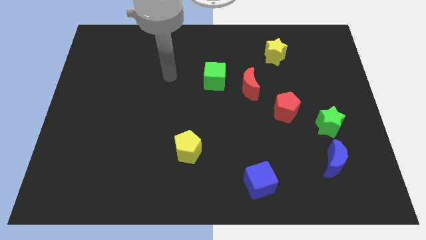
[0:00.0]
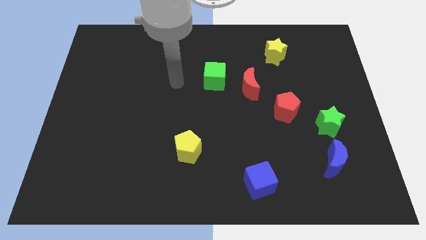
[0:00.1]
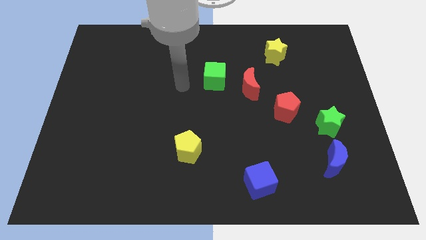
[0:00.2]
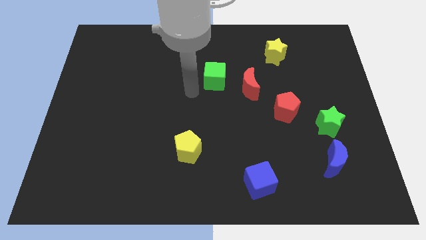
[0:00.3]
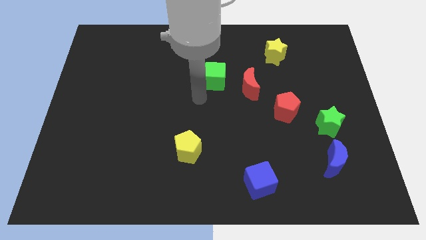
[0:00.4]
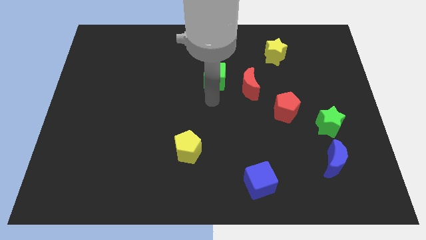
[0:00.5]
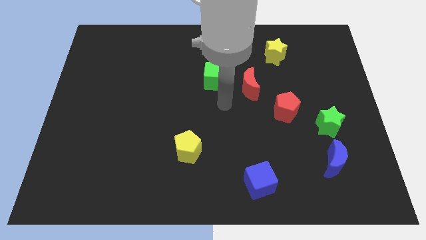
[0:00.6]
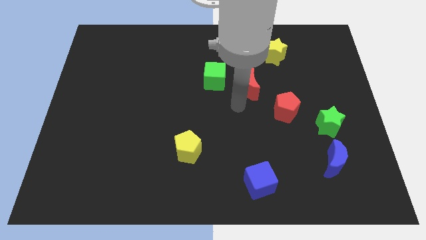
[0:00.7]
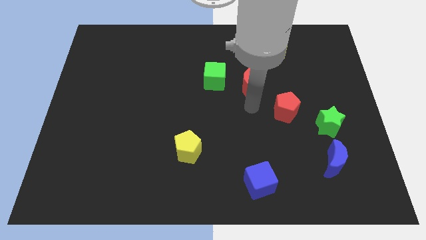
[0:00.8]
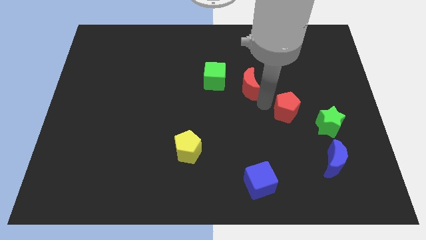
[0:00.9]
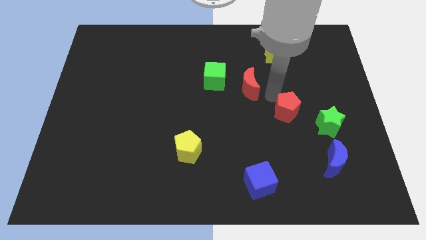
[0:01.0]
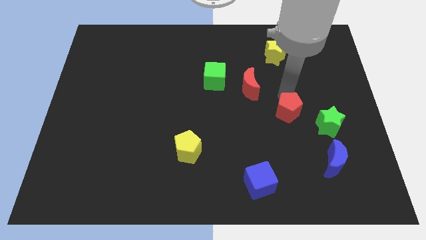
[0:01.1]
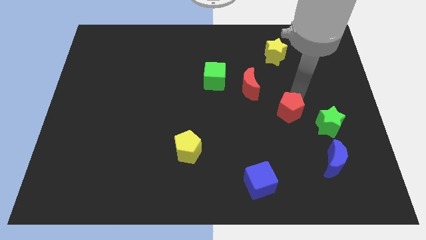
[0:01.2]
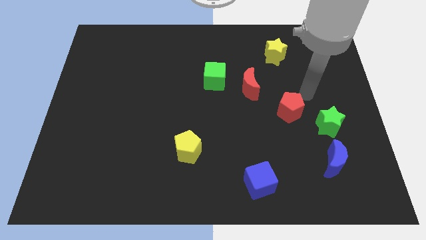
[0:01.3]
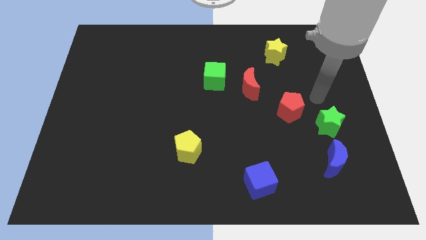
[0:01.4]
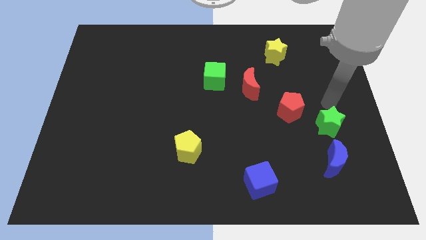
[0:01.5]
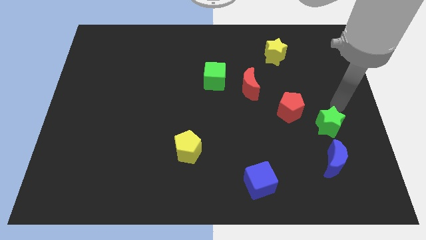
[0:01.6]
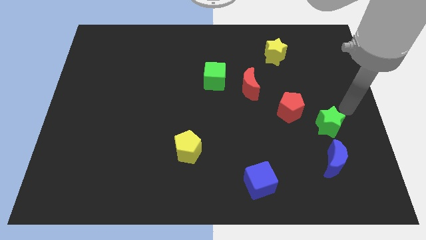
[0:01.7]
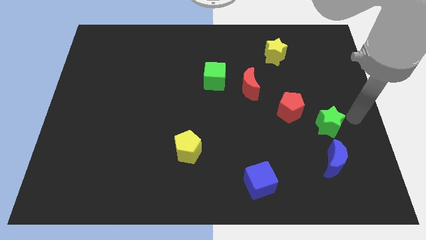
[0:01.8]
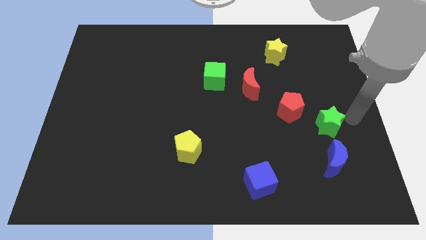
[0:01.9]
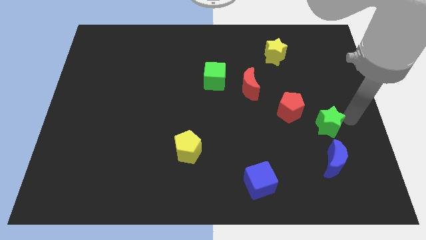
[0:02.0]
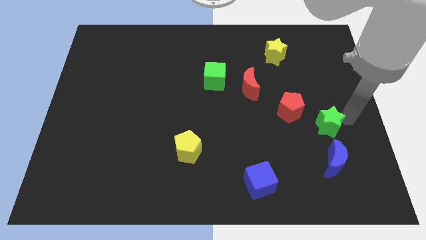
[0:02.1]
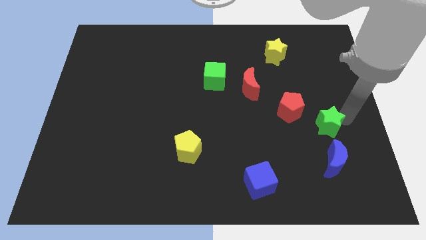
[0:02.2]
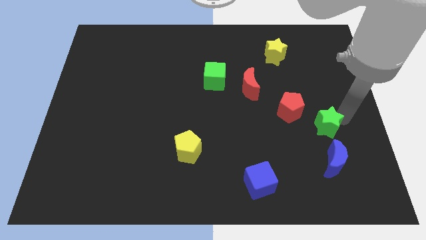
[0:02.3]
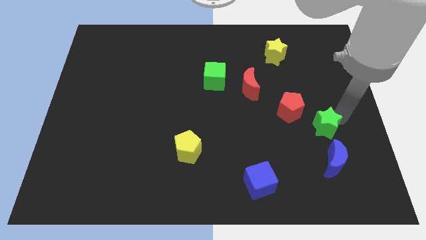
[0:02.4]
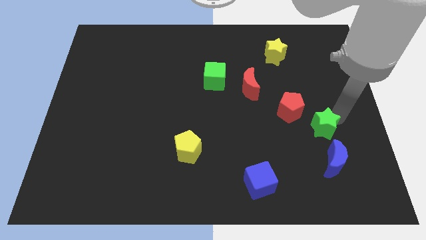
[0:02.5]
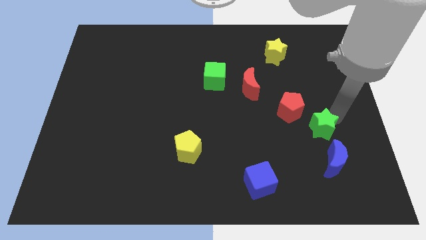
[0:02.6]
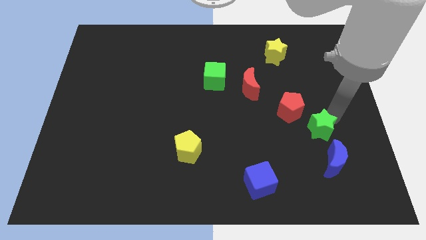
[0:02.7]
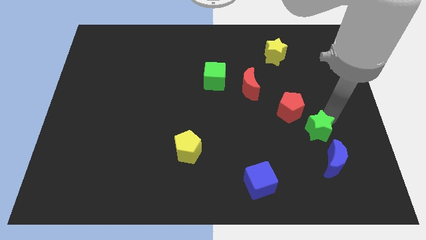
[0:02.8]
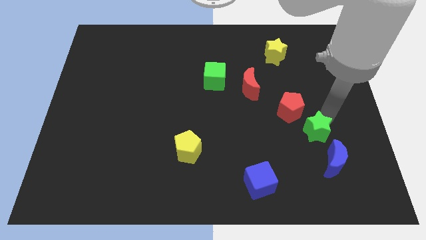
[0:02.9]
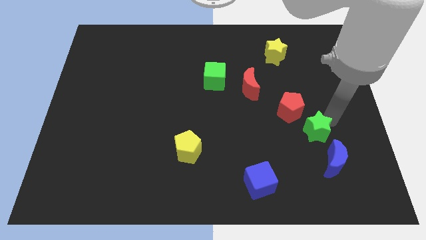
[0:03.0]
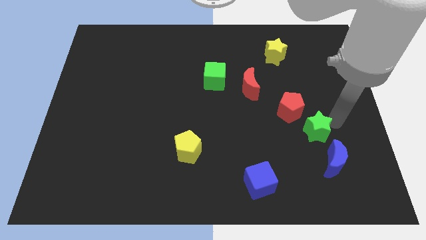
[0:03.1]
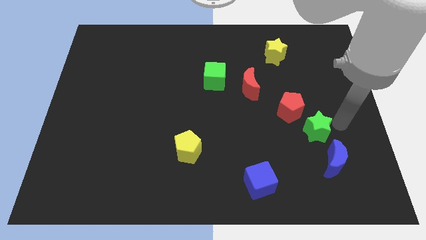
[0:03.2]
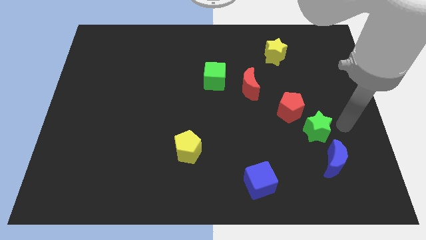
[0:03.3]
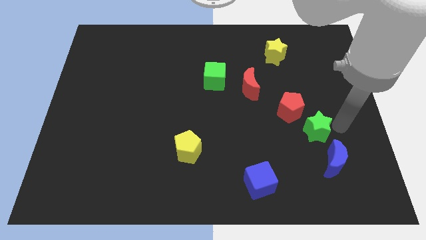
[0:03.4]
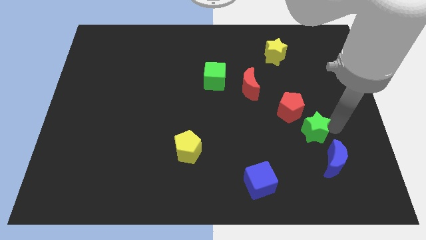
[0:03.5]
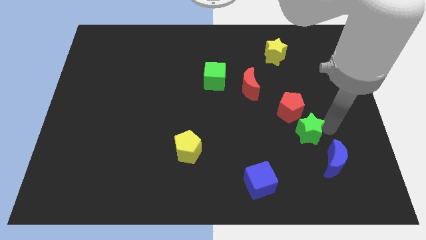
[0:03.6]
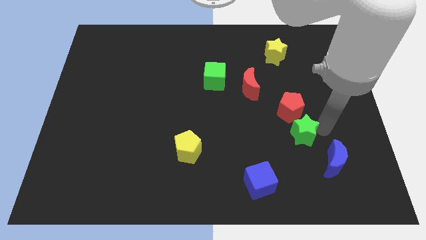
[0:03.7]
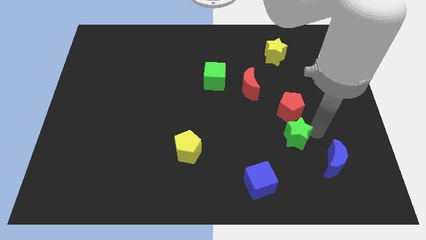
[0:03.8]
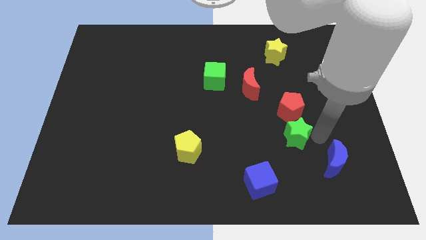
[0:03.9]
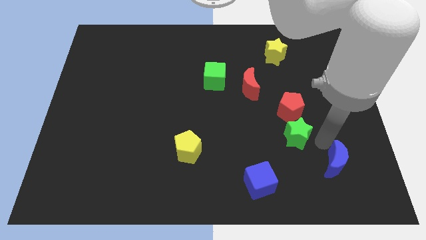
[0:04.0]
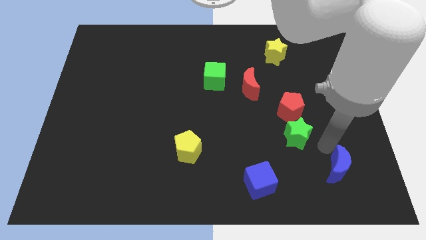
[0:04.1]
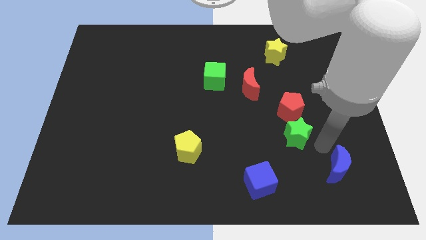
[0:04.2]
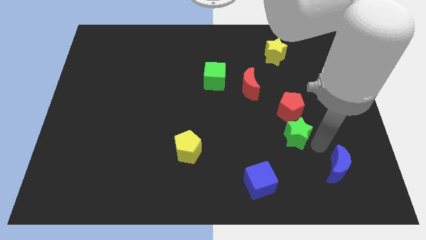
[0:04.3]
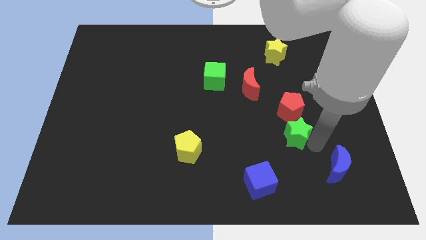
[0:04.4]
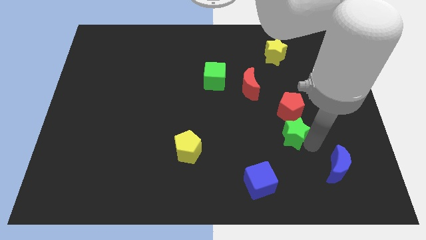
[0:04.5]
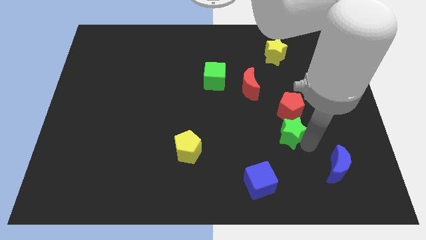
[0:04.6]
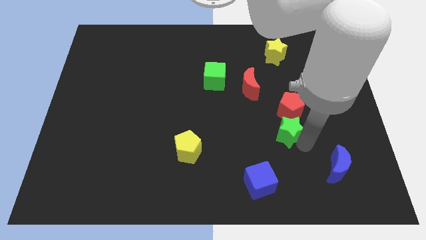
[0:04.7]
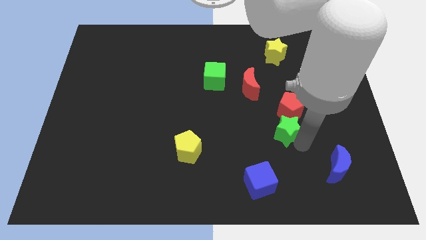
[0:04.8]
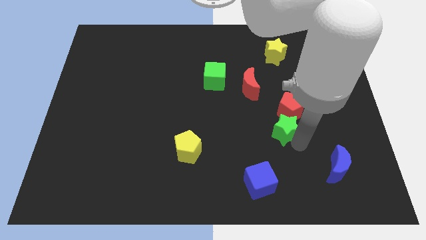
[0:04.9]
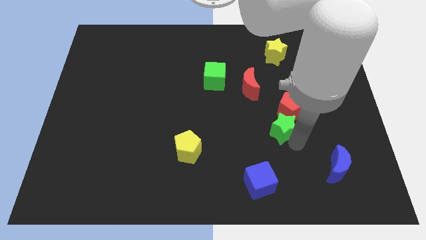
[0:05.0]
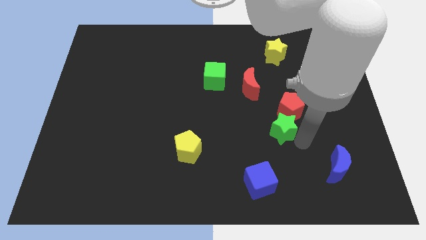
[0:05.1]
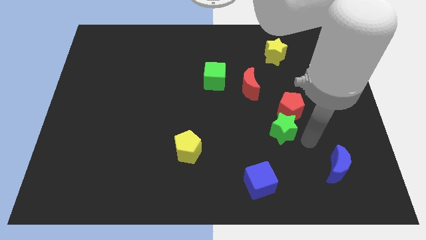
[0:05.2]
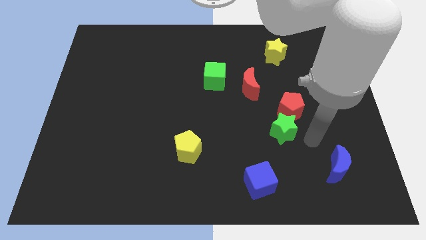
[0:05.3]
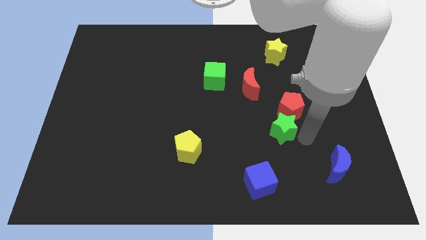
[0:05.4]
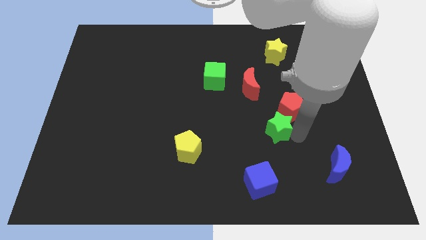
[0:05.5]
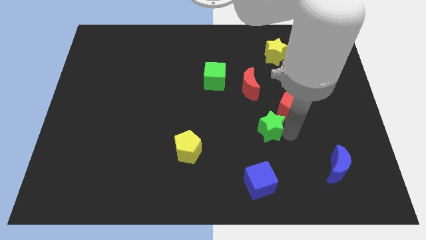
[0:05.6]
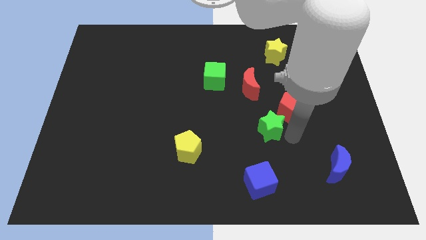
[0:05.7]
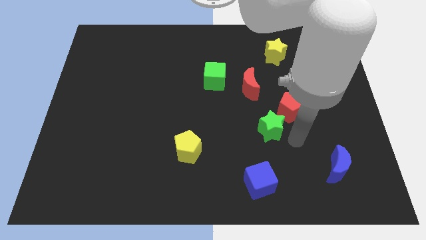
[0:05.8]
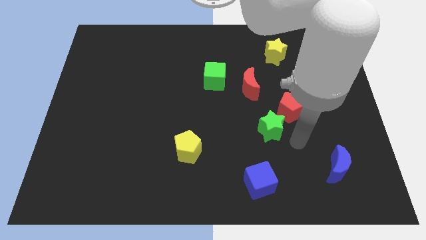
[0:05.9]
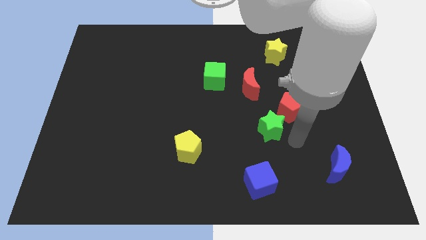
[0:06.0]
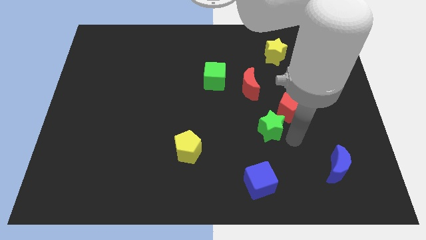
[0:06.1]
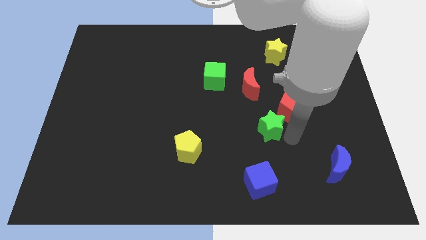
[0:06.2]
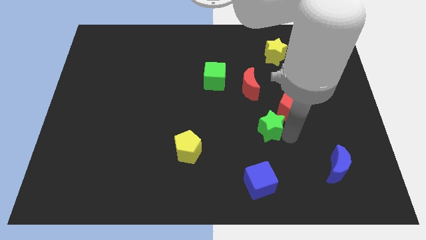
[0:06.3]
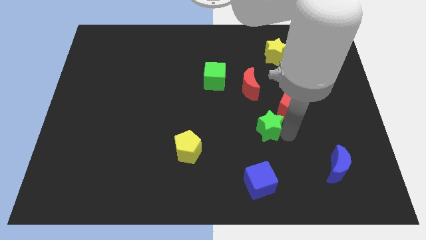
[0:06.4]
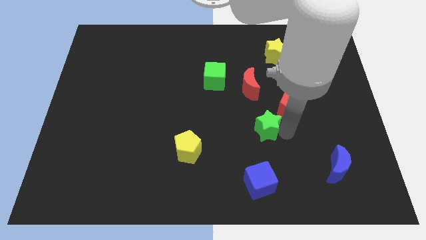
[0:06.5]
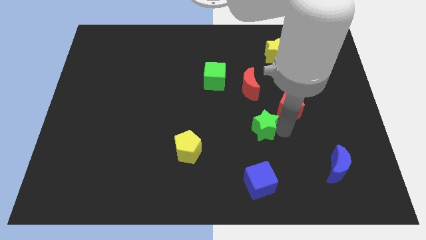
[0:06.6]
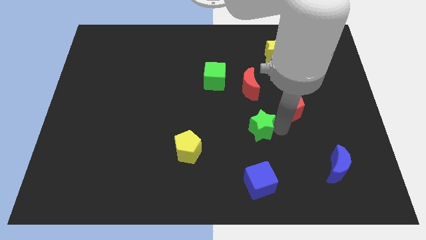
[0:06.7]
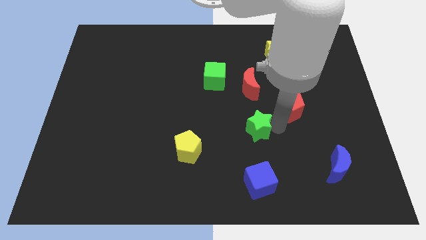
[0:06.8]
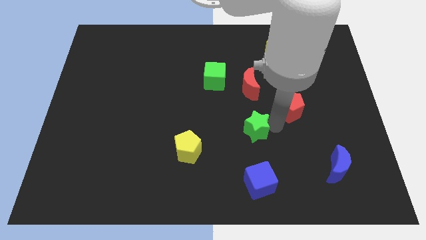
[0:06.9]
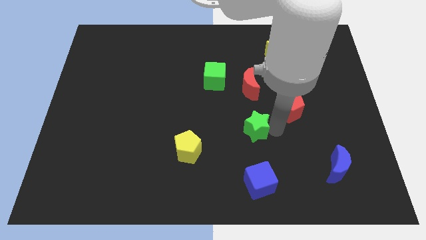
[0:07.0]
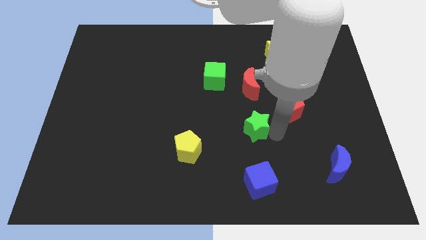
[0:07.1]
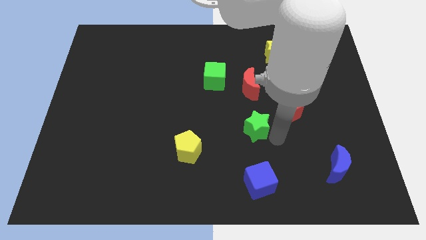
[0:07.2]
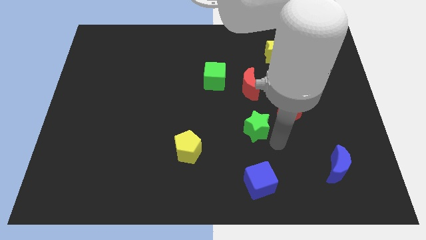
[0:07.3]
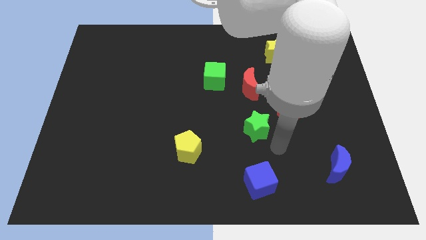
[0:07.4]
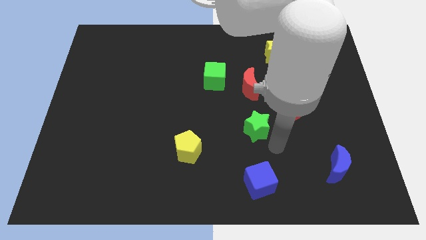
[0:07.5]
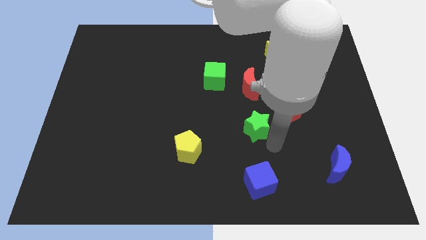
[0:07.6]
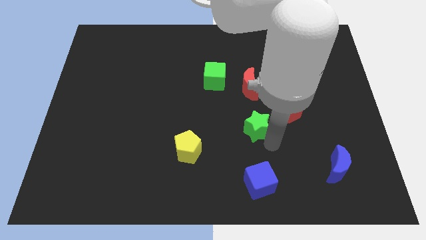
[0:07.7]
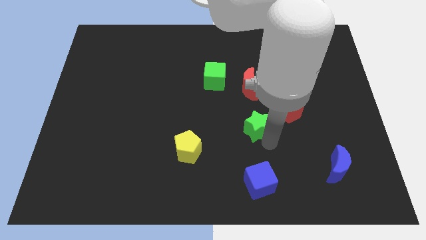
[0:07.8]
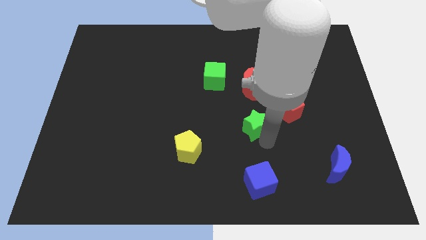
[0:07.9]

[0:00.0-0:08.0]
slide the green star to the center of the board
